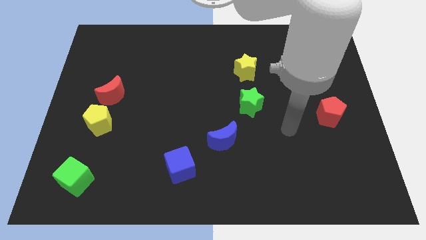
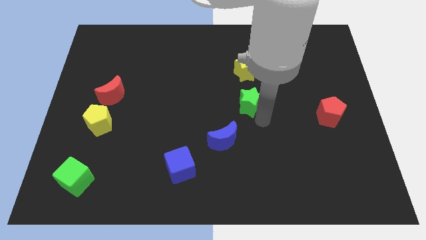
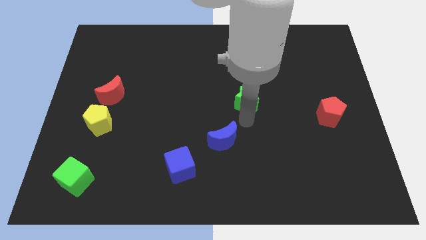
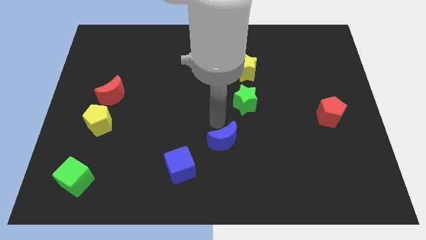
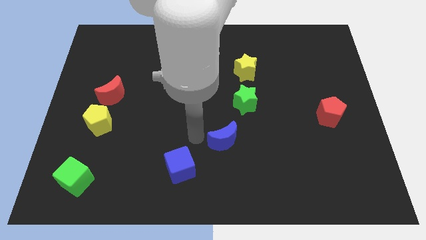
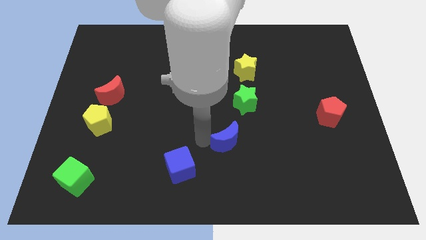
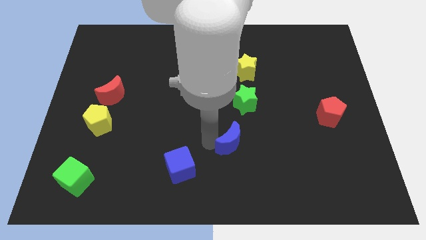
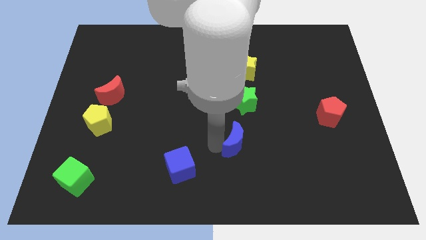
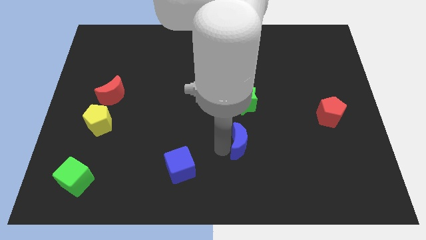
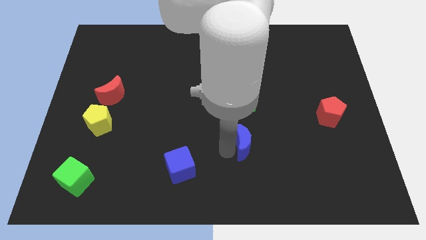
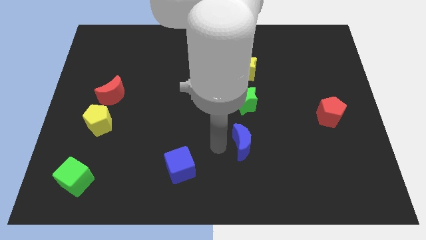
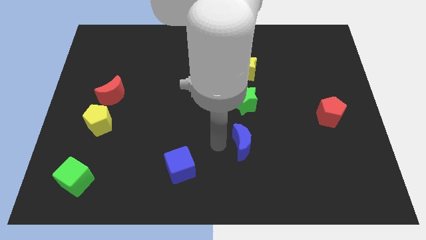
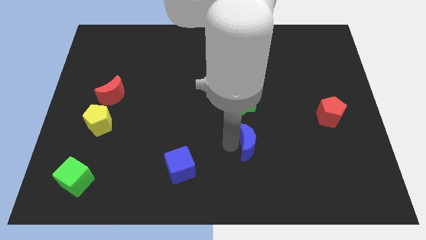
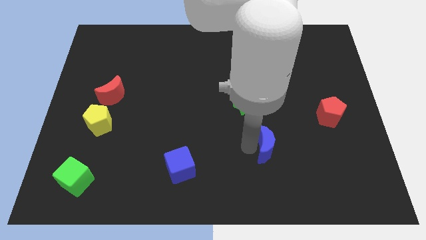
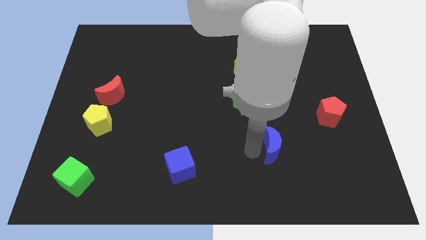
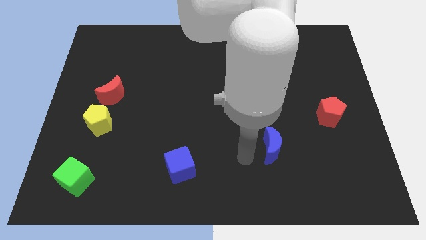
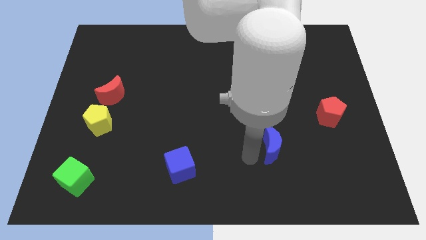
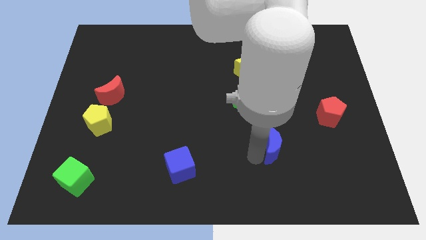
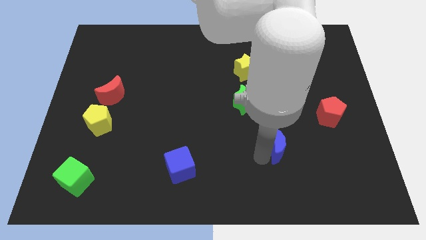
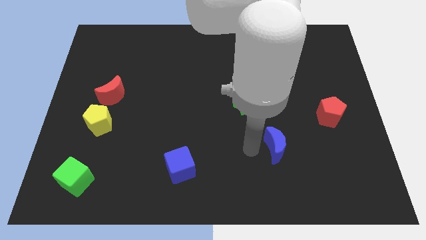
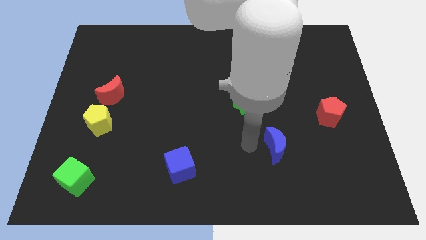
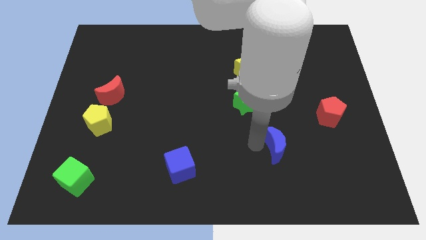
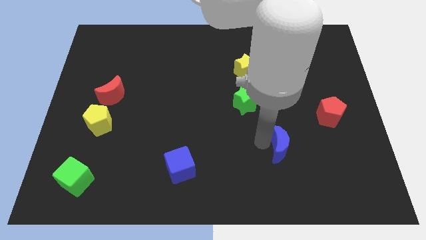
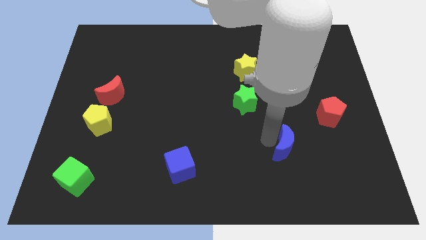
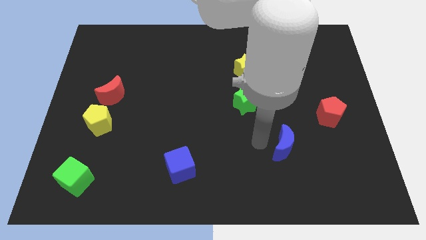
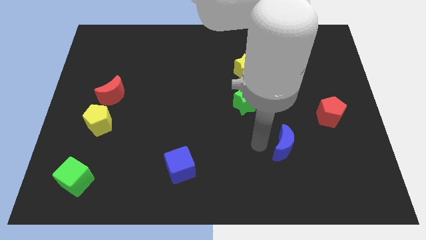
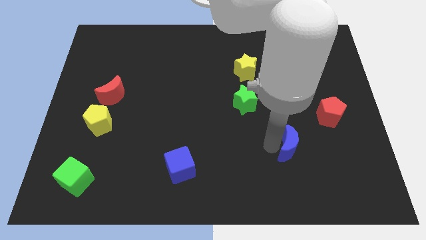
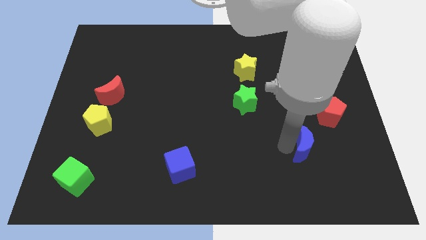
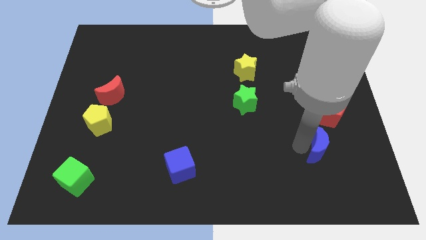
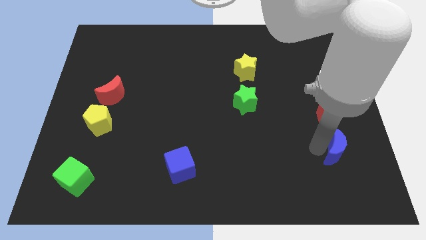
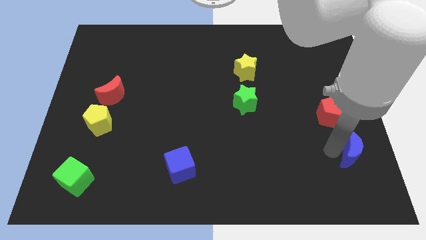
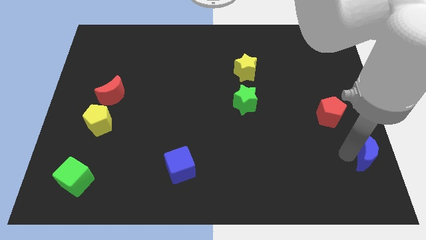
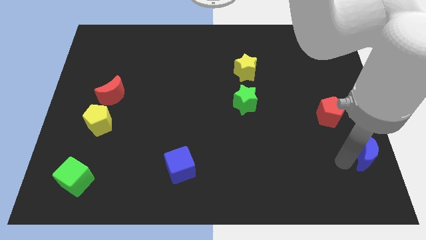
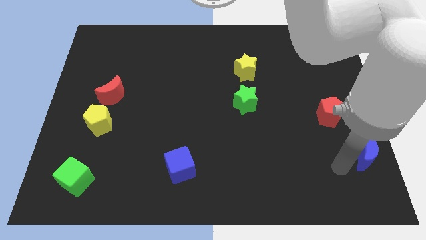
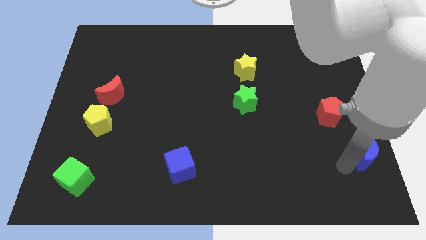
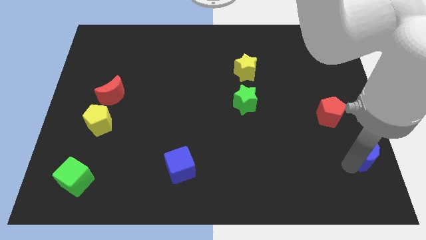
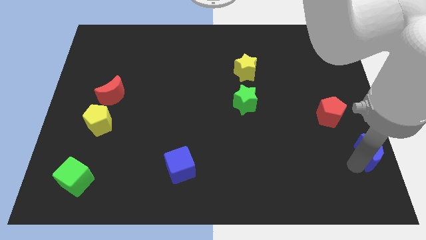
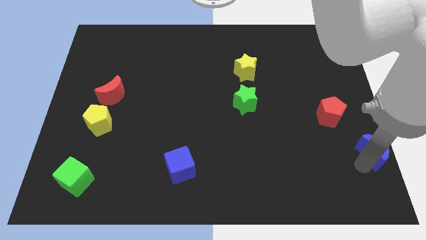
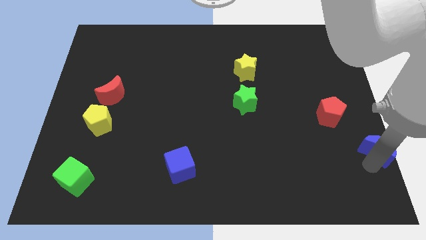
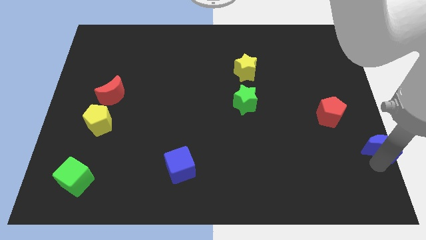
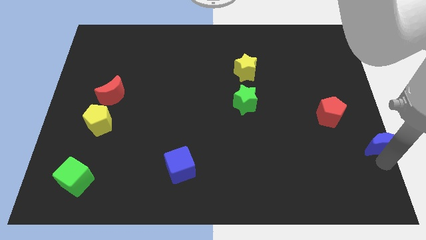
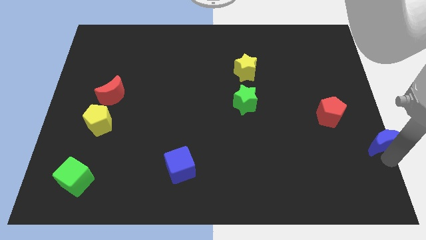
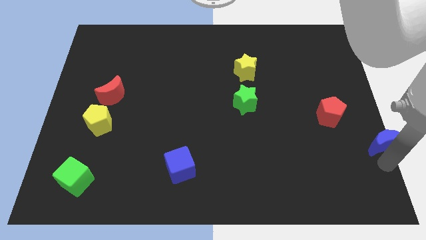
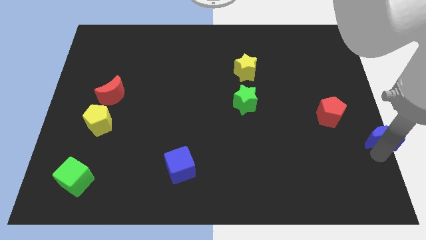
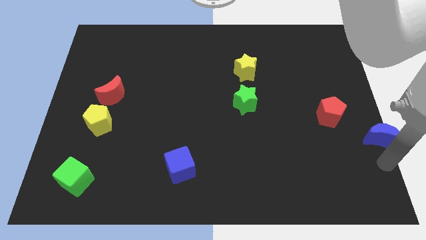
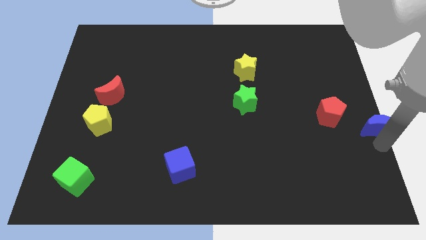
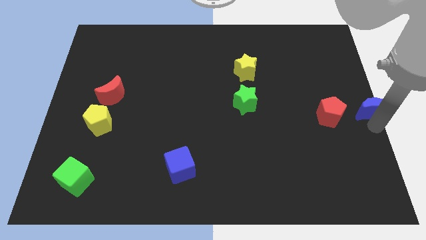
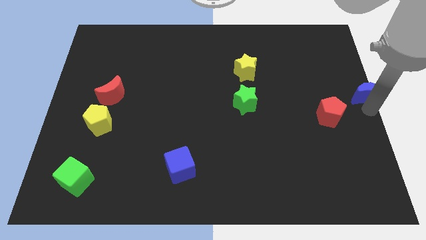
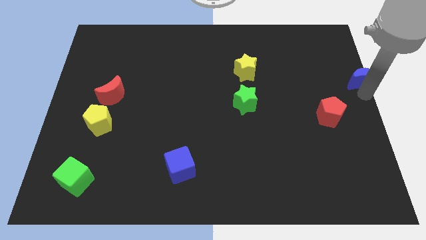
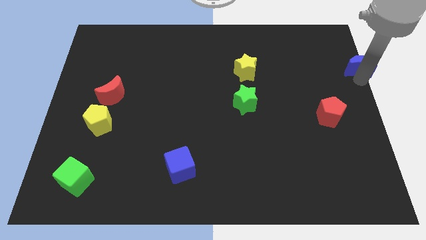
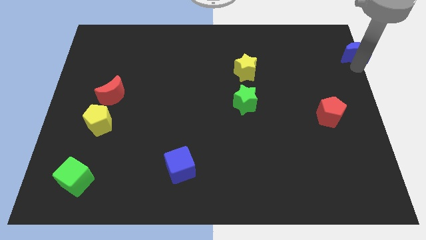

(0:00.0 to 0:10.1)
put the blue moon to the top right of the board
